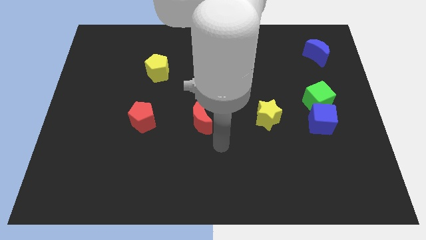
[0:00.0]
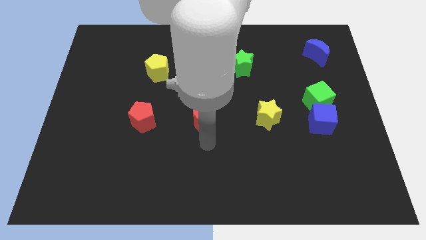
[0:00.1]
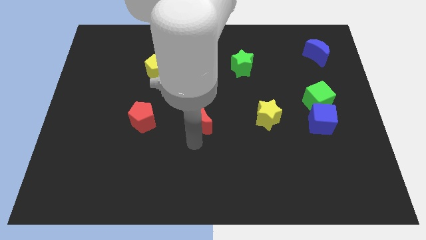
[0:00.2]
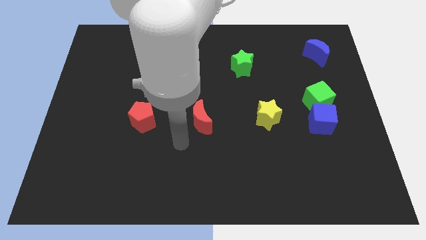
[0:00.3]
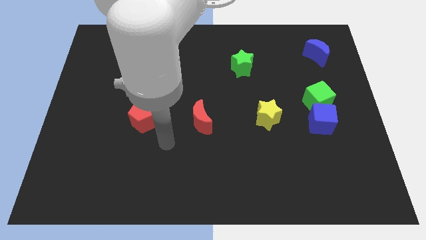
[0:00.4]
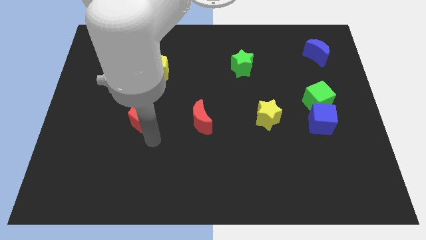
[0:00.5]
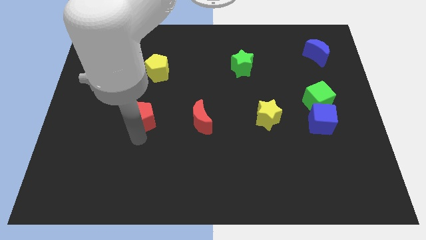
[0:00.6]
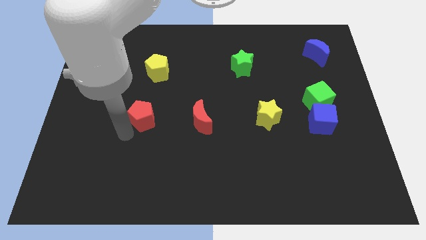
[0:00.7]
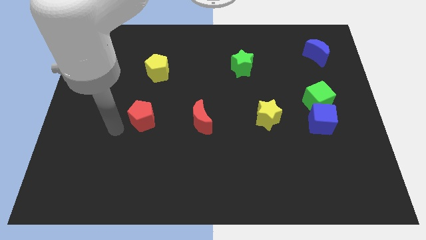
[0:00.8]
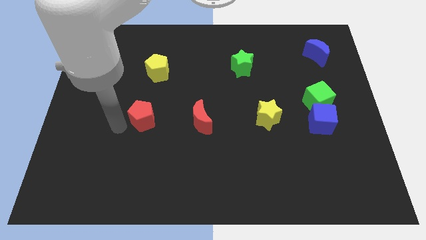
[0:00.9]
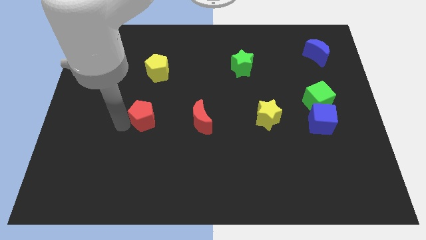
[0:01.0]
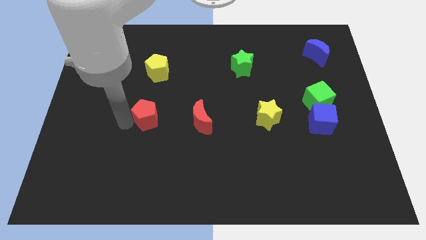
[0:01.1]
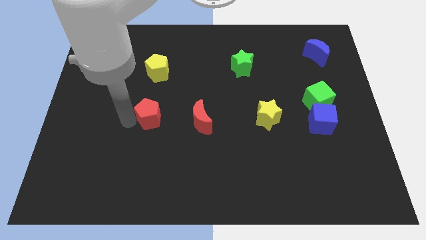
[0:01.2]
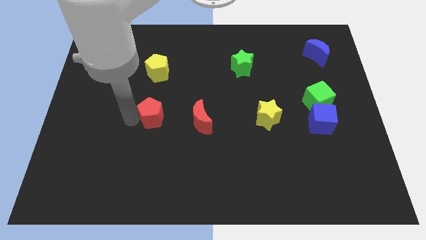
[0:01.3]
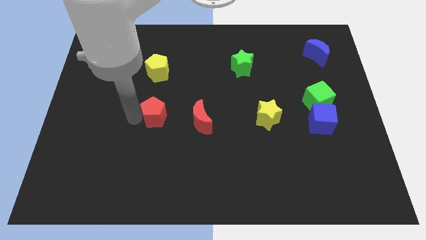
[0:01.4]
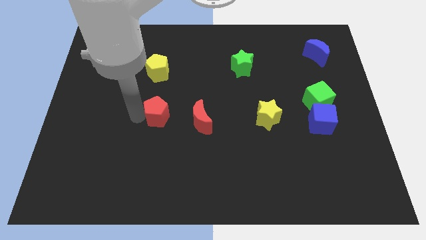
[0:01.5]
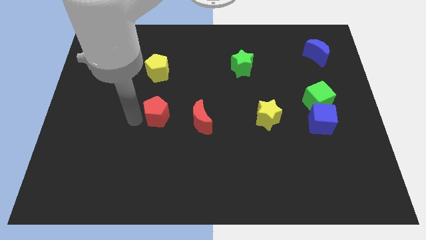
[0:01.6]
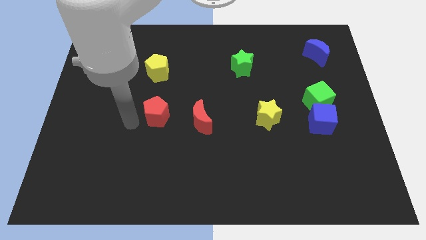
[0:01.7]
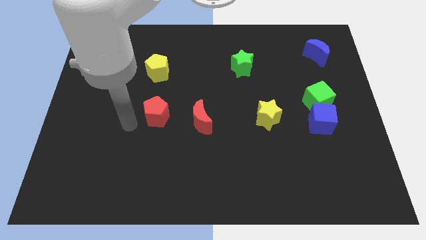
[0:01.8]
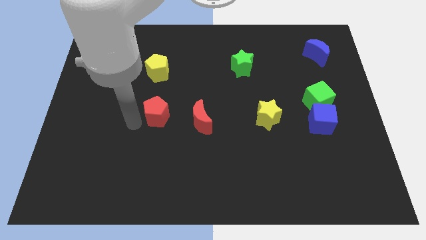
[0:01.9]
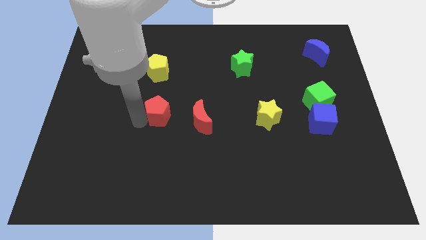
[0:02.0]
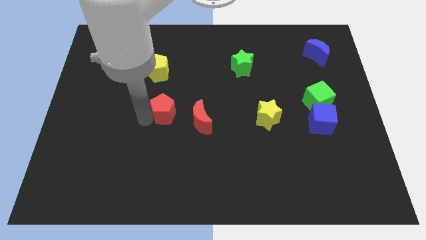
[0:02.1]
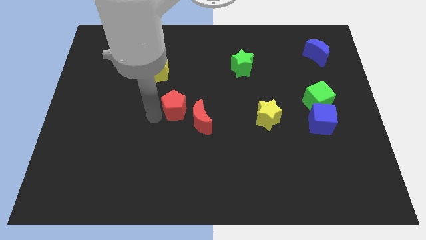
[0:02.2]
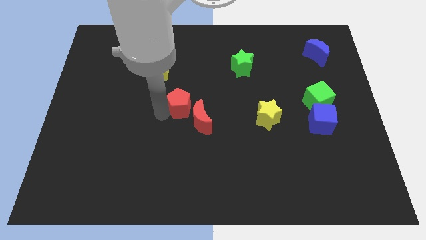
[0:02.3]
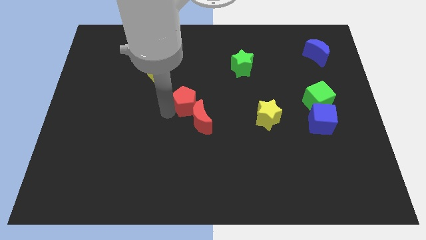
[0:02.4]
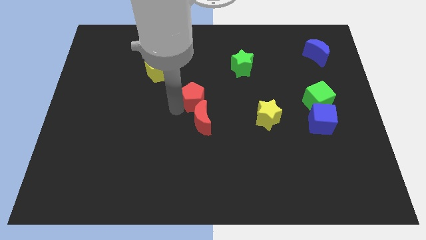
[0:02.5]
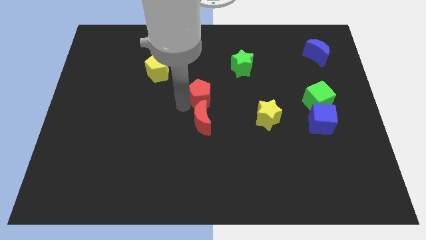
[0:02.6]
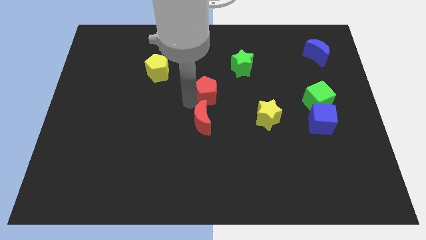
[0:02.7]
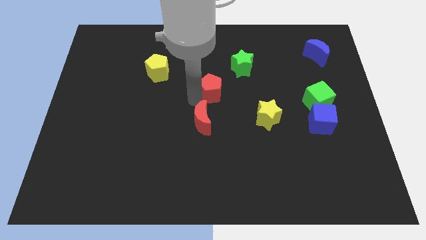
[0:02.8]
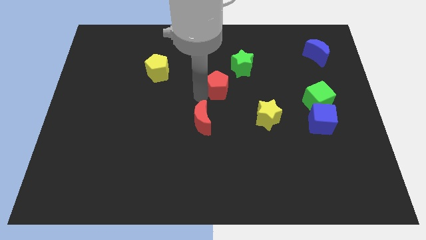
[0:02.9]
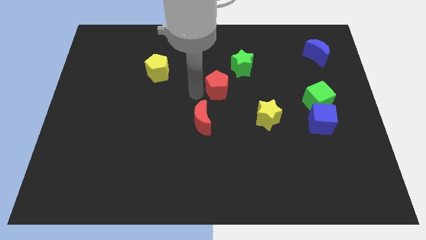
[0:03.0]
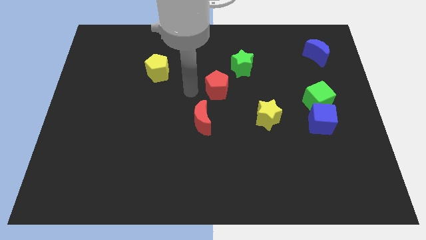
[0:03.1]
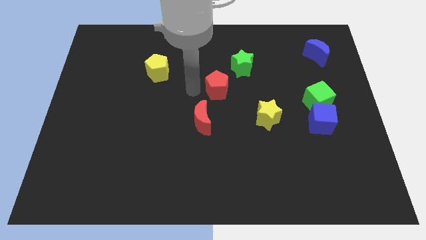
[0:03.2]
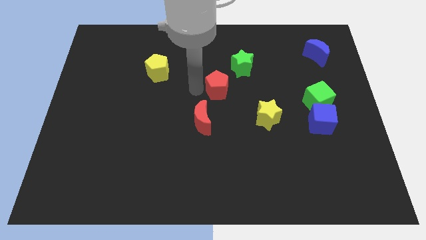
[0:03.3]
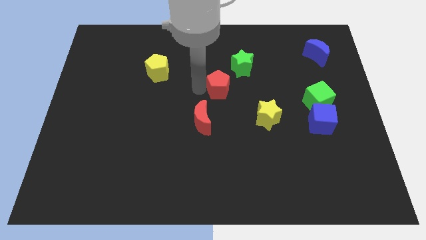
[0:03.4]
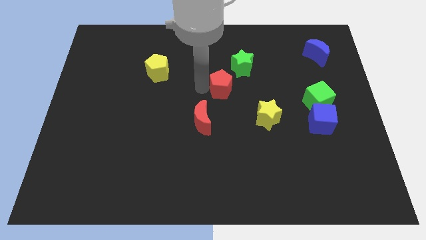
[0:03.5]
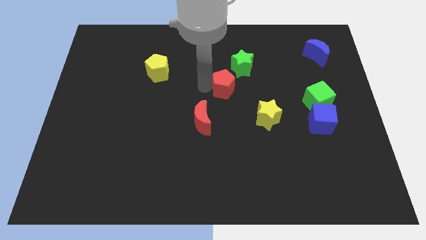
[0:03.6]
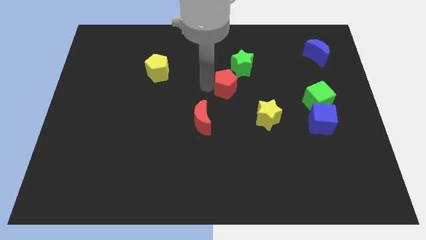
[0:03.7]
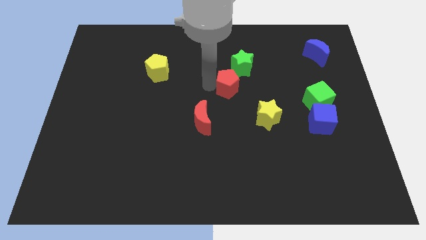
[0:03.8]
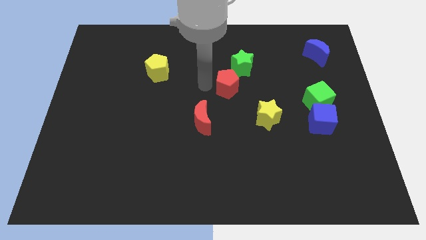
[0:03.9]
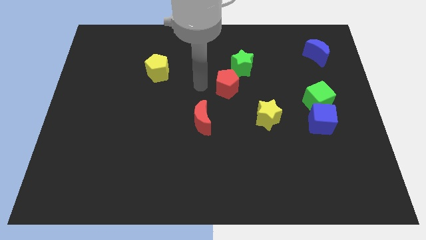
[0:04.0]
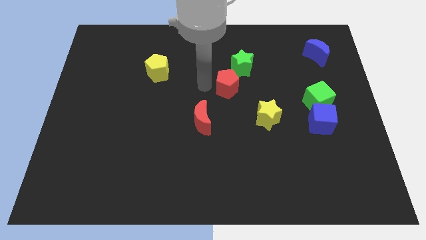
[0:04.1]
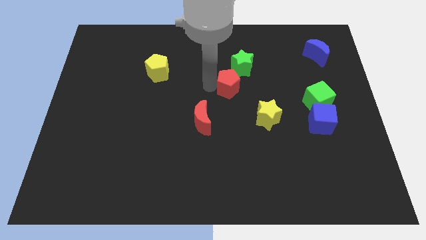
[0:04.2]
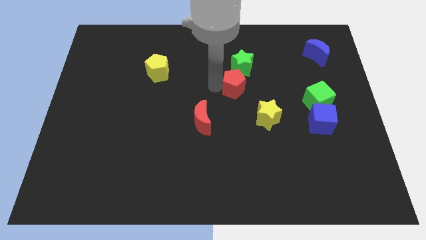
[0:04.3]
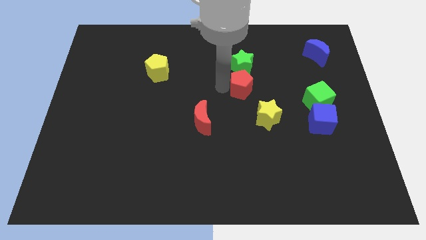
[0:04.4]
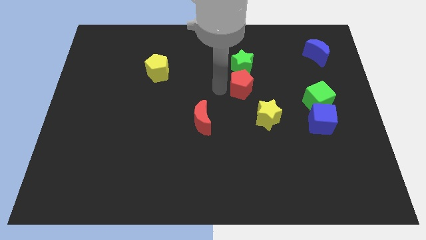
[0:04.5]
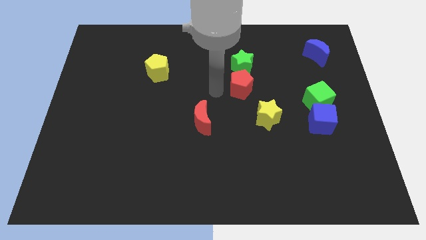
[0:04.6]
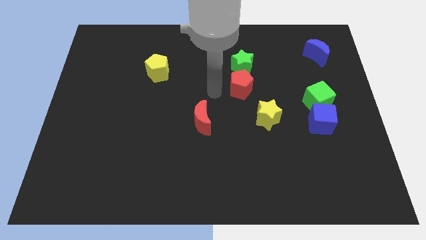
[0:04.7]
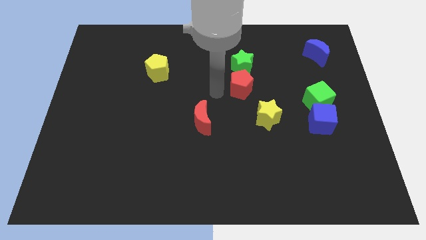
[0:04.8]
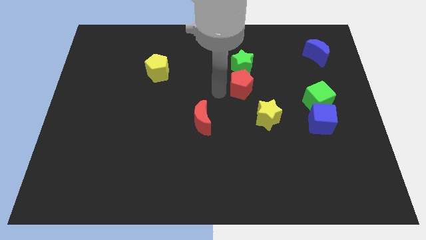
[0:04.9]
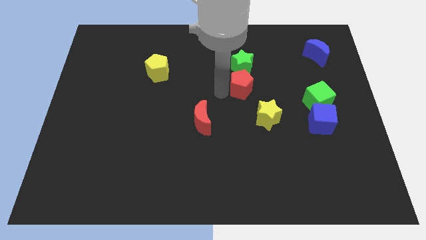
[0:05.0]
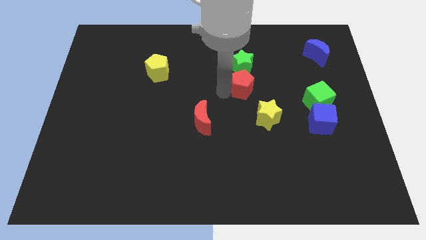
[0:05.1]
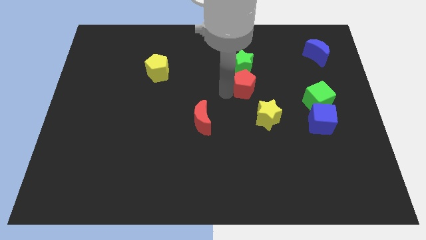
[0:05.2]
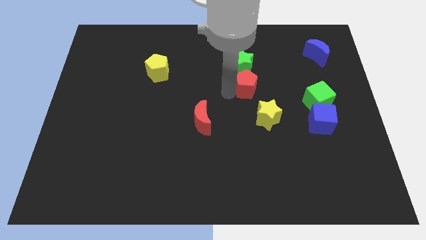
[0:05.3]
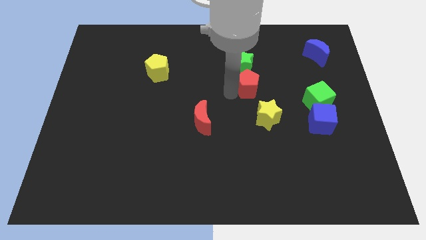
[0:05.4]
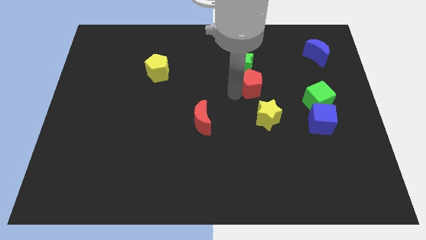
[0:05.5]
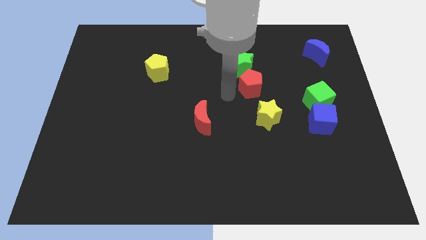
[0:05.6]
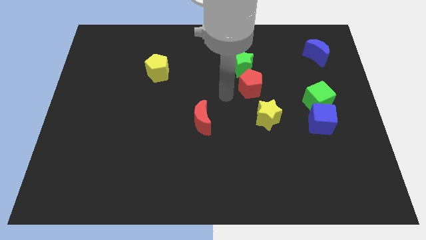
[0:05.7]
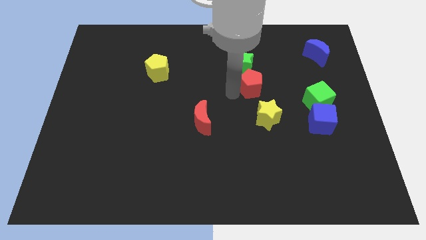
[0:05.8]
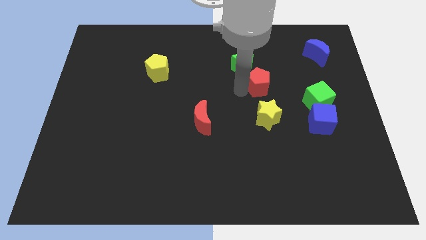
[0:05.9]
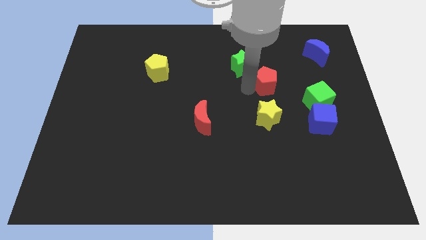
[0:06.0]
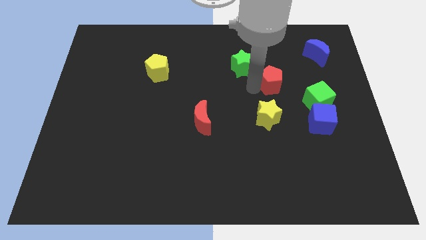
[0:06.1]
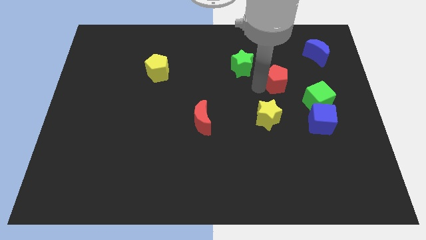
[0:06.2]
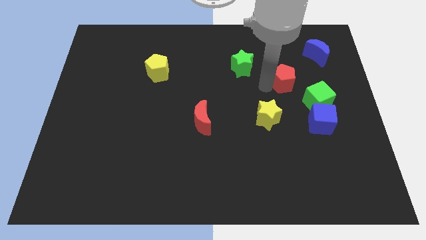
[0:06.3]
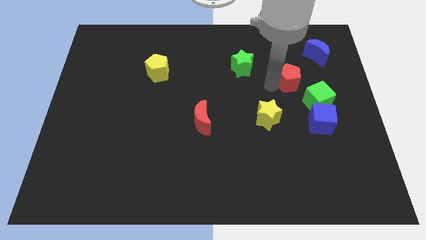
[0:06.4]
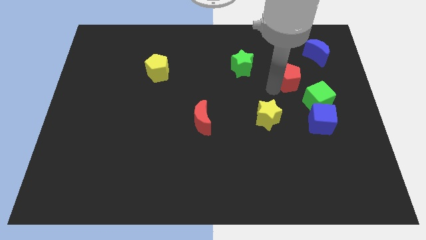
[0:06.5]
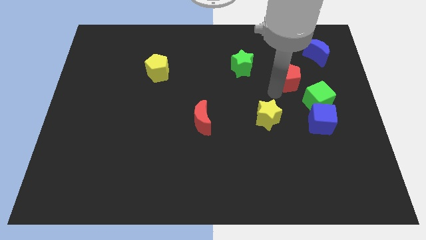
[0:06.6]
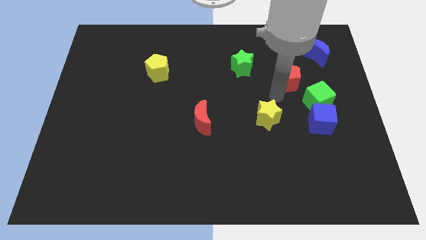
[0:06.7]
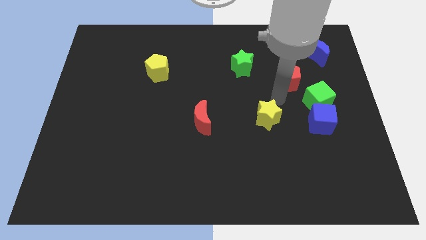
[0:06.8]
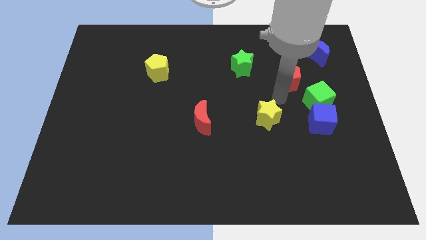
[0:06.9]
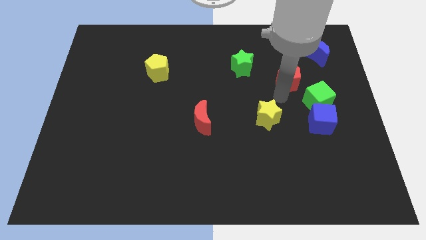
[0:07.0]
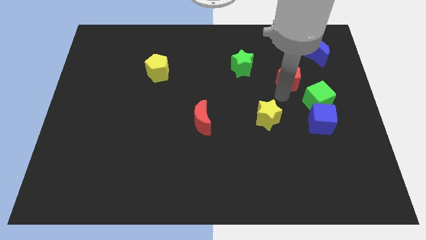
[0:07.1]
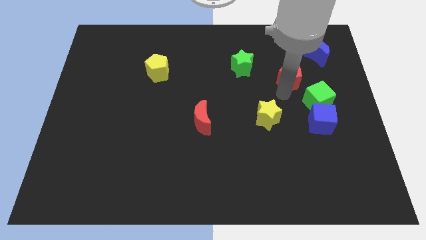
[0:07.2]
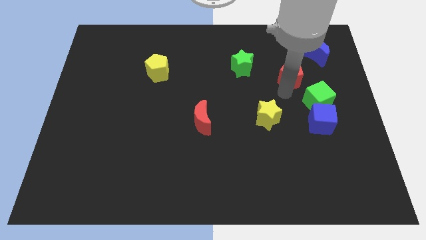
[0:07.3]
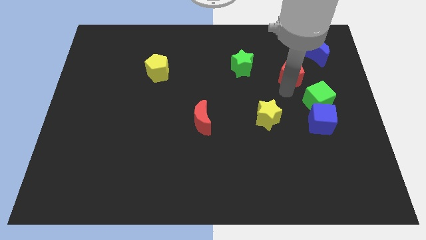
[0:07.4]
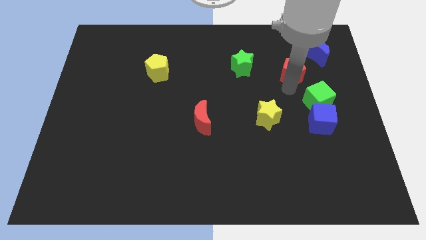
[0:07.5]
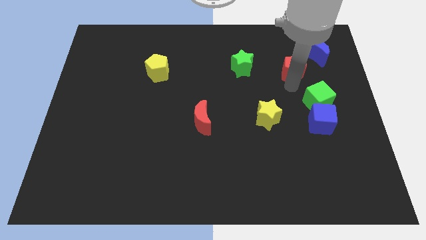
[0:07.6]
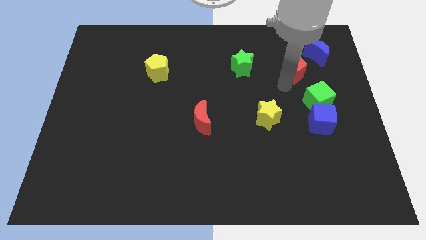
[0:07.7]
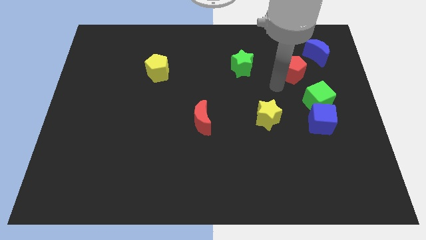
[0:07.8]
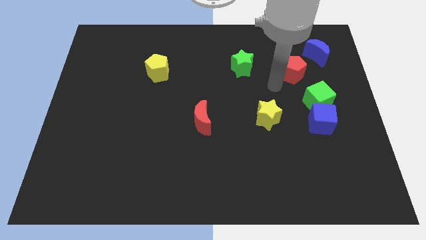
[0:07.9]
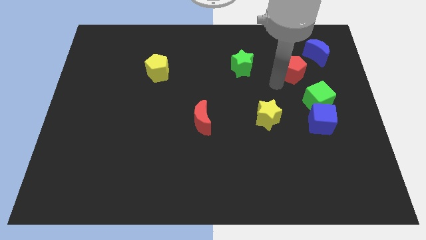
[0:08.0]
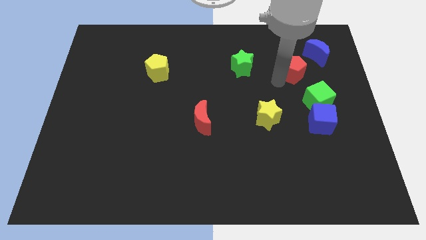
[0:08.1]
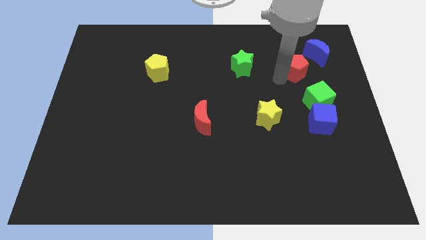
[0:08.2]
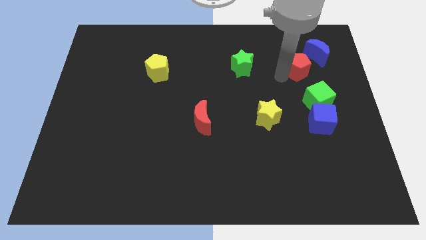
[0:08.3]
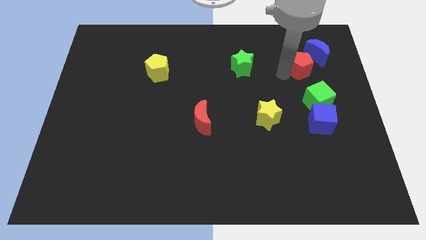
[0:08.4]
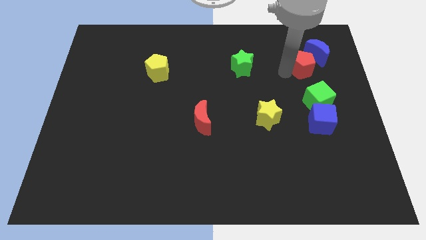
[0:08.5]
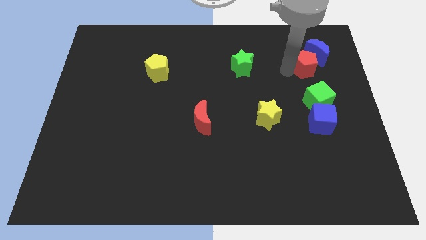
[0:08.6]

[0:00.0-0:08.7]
move the red pentagon to the blue moon
